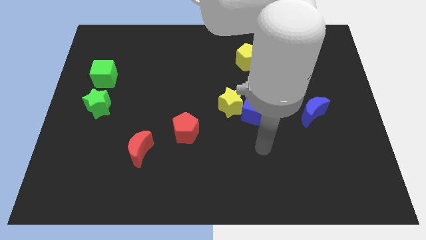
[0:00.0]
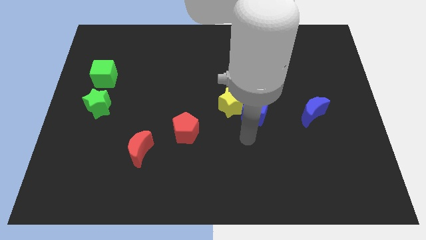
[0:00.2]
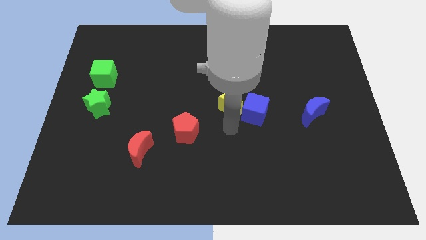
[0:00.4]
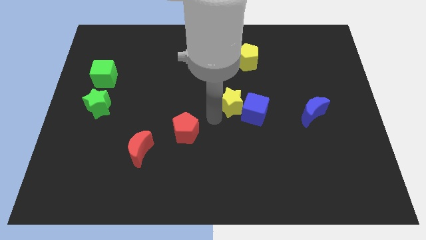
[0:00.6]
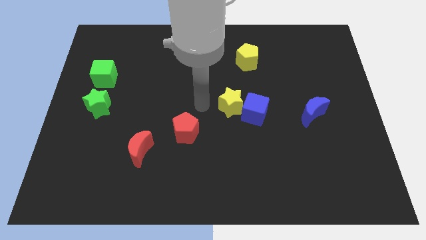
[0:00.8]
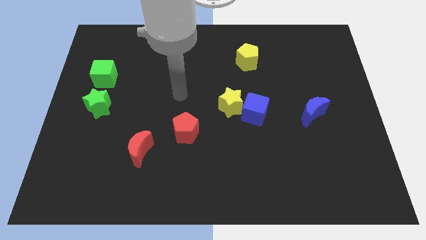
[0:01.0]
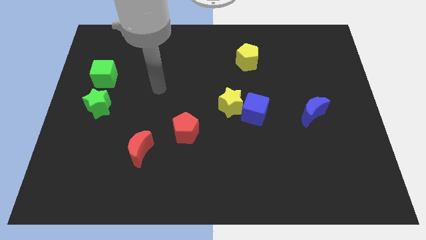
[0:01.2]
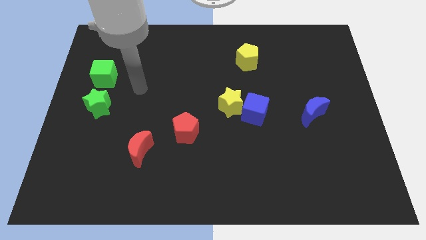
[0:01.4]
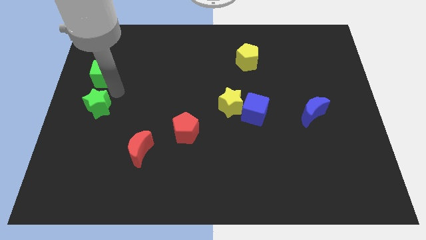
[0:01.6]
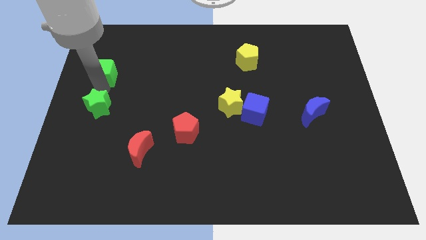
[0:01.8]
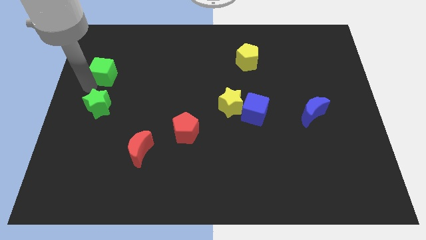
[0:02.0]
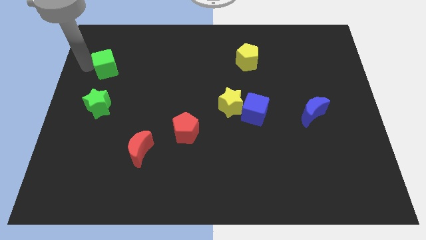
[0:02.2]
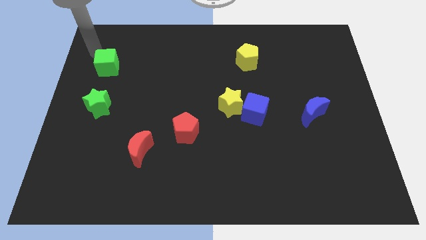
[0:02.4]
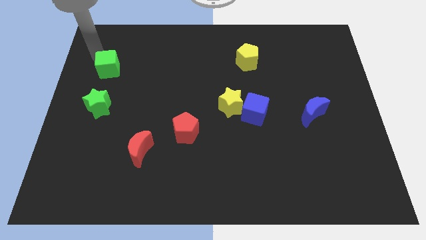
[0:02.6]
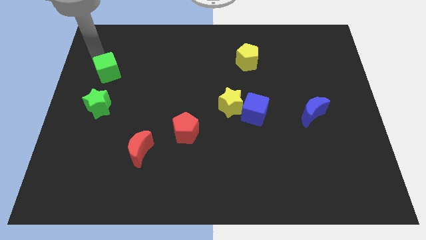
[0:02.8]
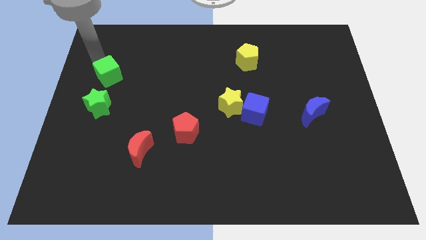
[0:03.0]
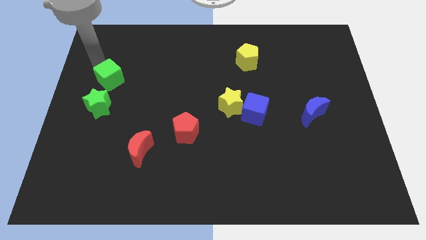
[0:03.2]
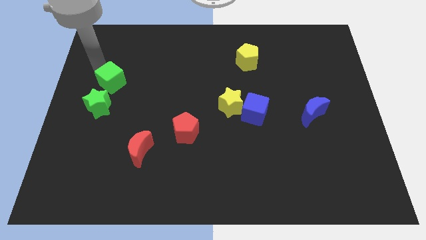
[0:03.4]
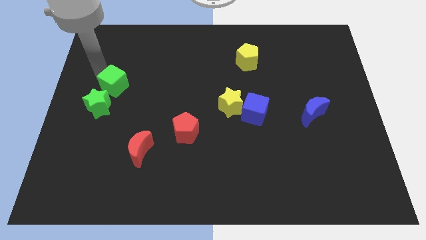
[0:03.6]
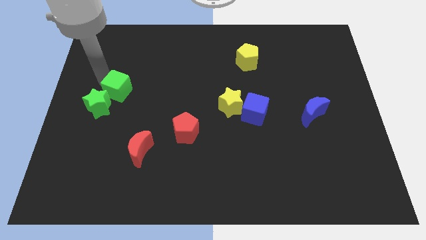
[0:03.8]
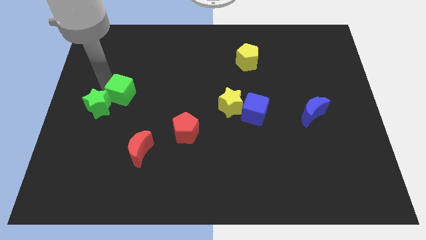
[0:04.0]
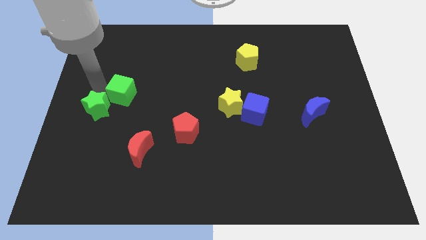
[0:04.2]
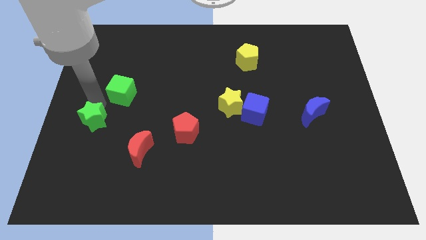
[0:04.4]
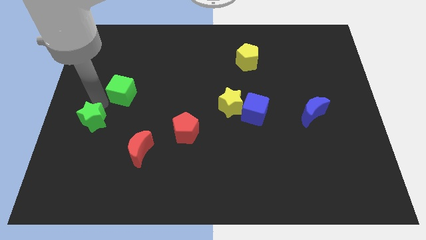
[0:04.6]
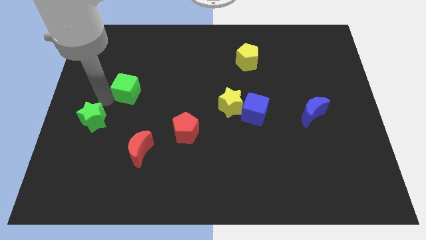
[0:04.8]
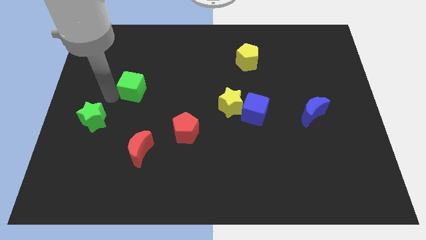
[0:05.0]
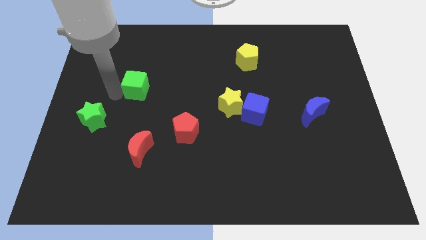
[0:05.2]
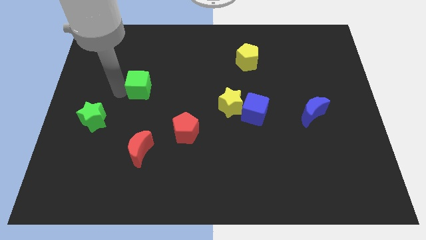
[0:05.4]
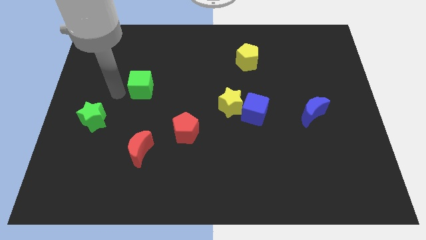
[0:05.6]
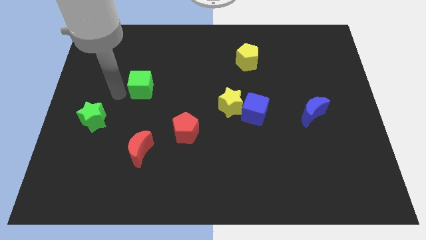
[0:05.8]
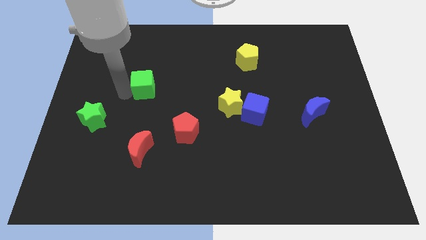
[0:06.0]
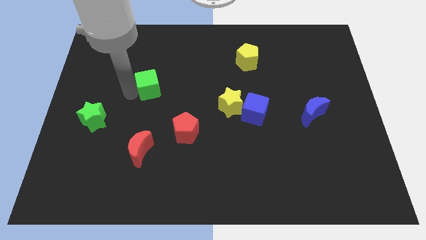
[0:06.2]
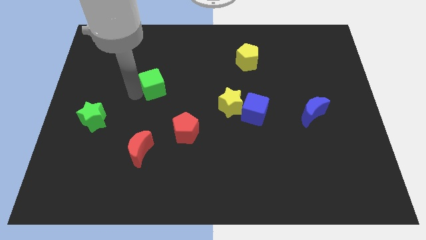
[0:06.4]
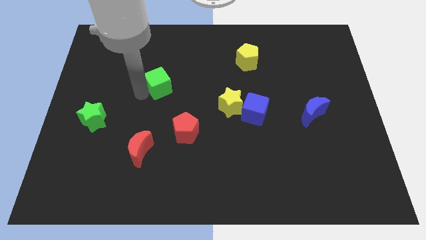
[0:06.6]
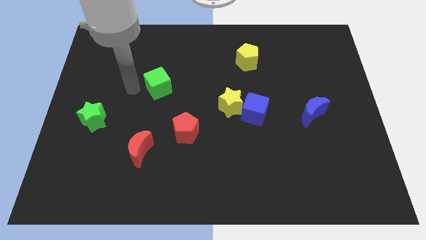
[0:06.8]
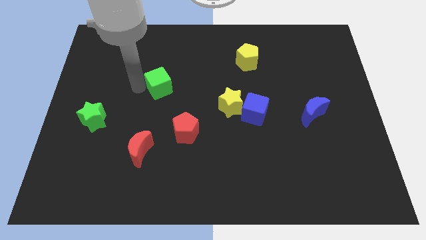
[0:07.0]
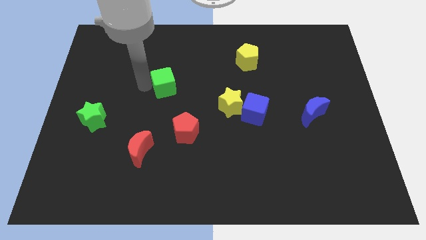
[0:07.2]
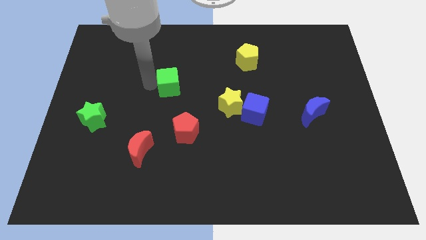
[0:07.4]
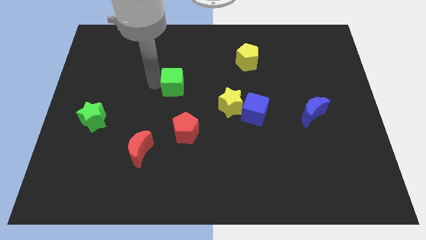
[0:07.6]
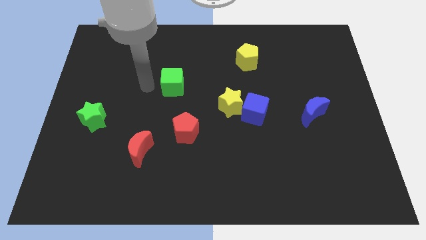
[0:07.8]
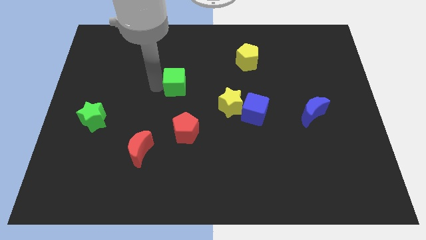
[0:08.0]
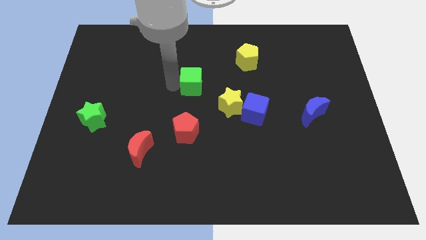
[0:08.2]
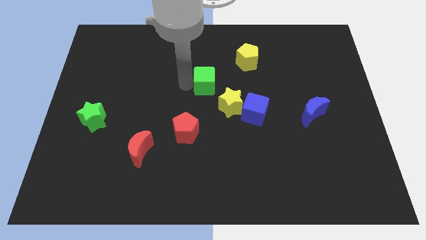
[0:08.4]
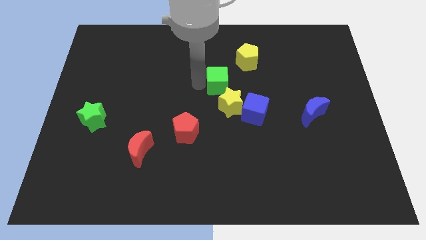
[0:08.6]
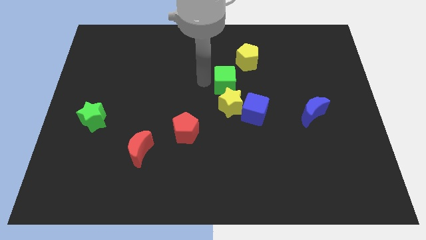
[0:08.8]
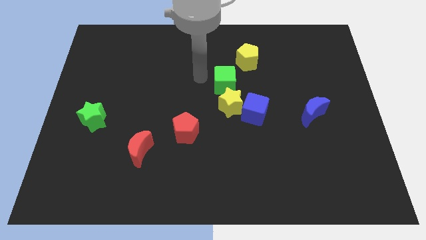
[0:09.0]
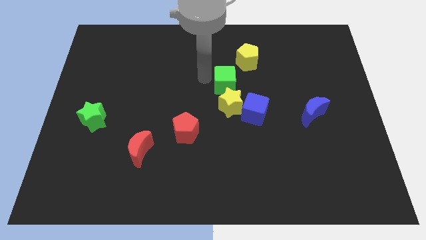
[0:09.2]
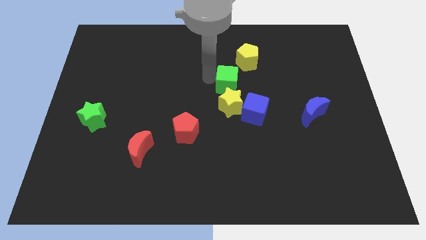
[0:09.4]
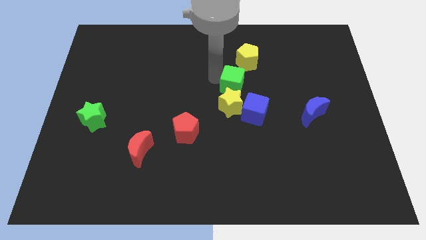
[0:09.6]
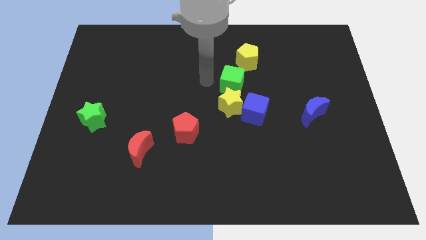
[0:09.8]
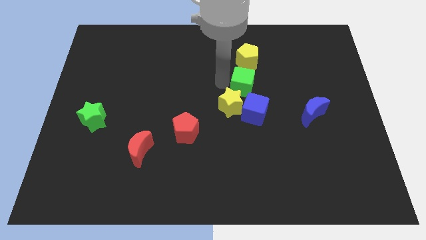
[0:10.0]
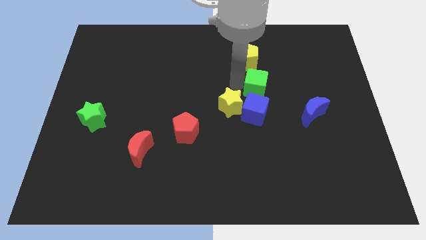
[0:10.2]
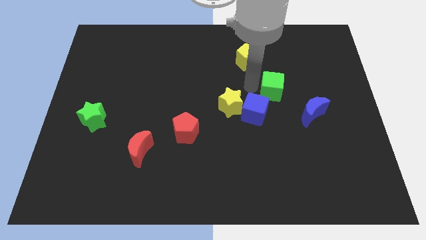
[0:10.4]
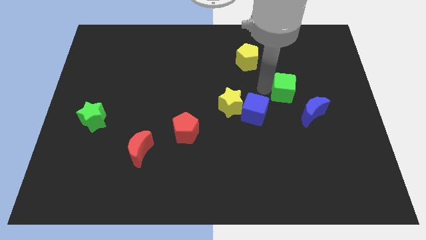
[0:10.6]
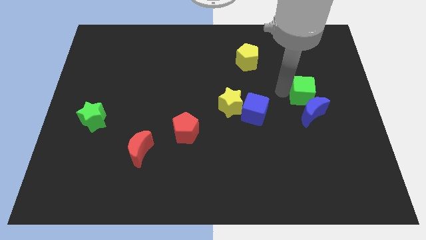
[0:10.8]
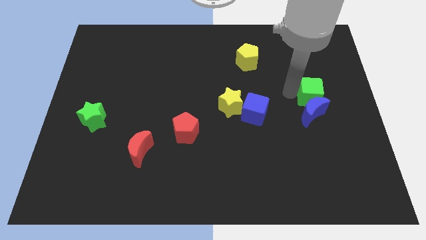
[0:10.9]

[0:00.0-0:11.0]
slide the green cube diagonally up and to the right of the blue moon

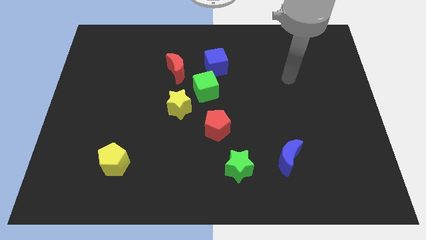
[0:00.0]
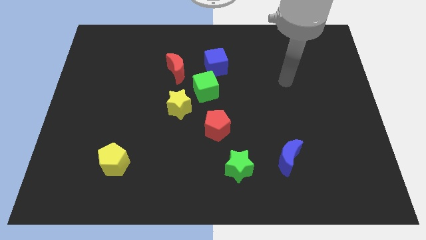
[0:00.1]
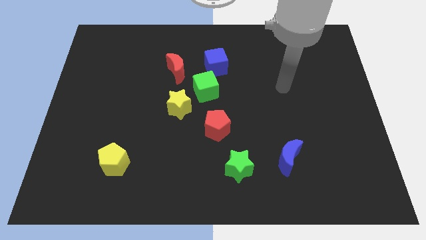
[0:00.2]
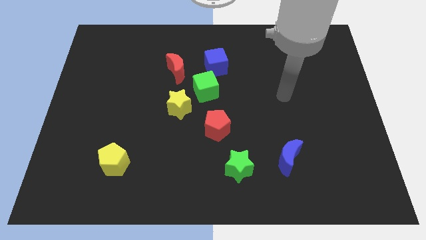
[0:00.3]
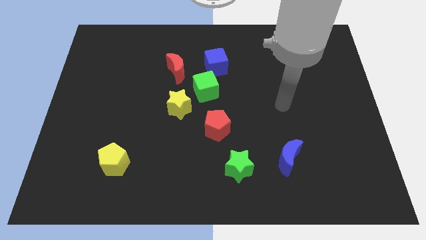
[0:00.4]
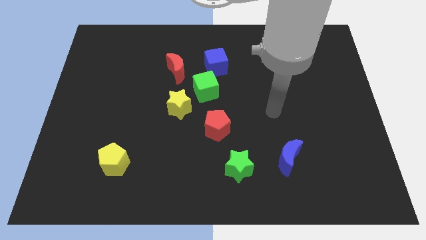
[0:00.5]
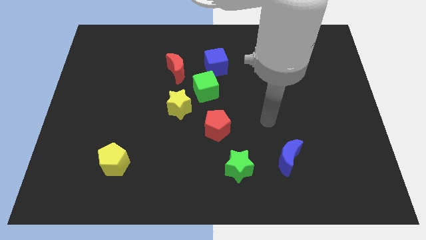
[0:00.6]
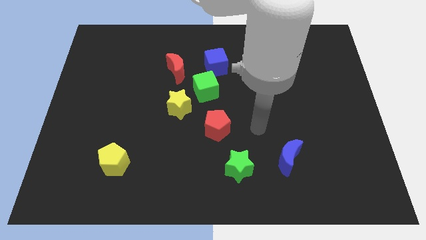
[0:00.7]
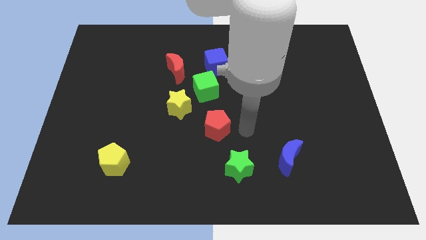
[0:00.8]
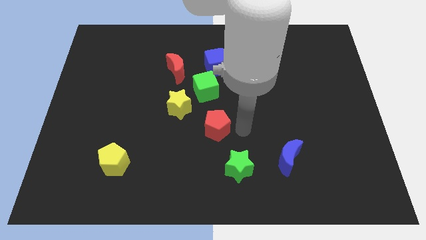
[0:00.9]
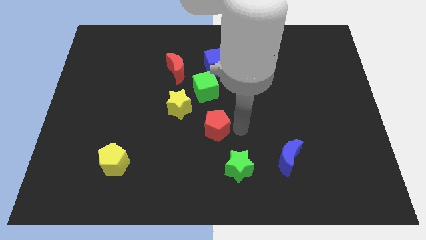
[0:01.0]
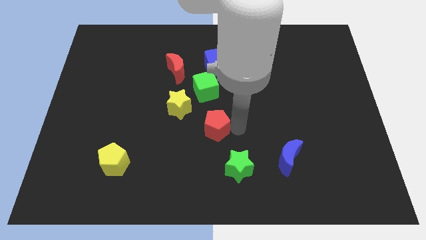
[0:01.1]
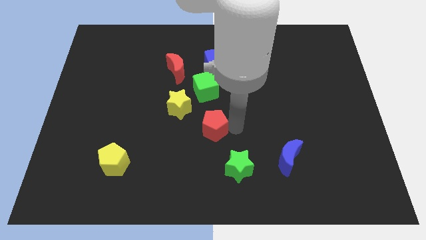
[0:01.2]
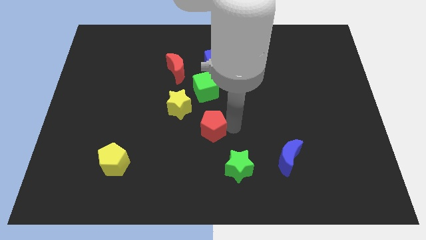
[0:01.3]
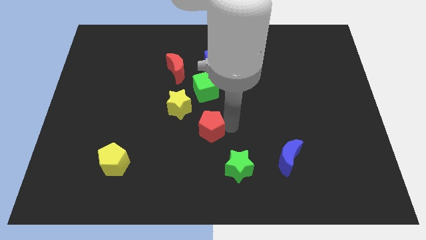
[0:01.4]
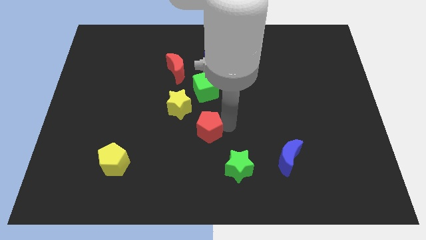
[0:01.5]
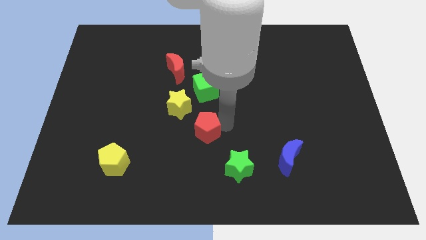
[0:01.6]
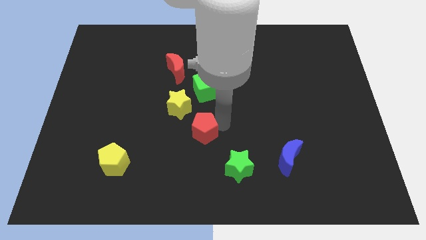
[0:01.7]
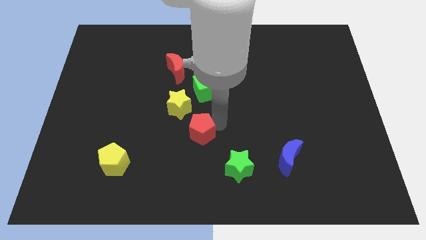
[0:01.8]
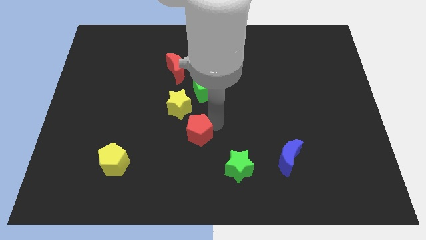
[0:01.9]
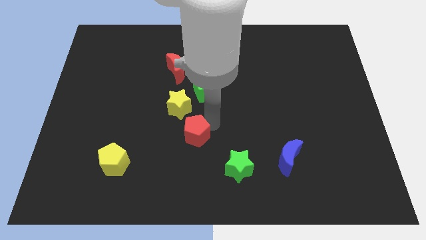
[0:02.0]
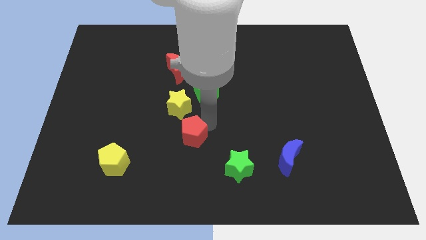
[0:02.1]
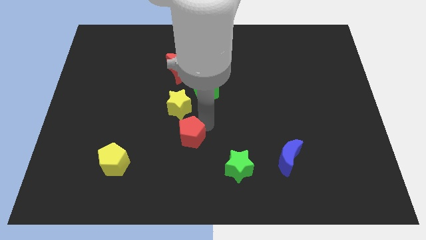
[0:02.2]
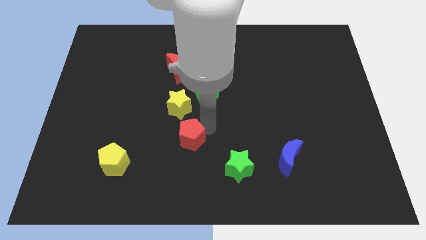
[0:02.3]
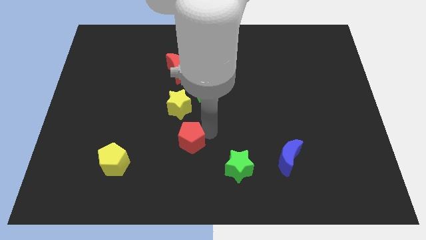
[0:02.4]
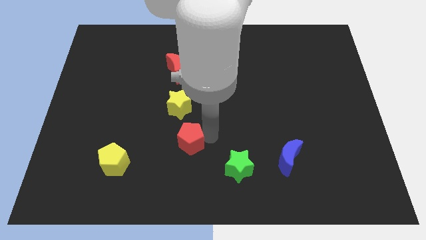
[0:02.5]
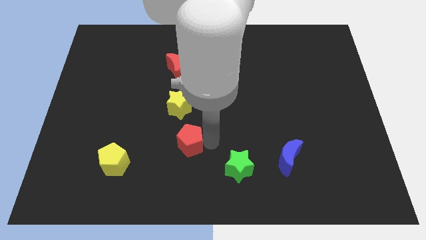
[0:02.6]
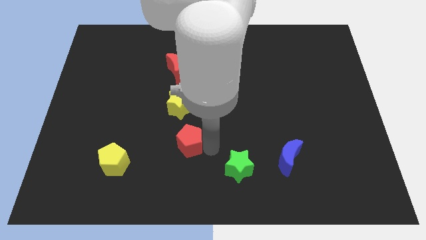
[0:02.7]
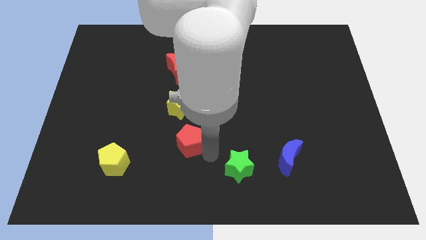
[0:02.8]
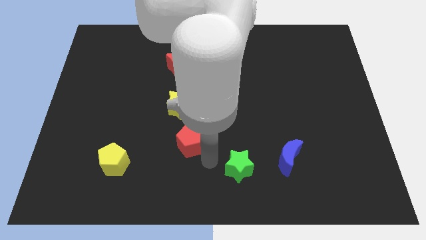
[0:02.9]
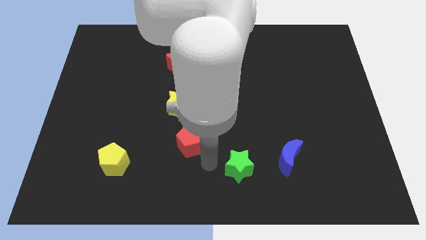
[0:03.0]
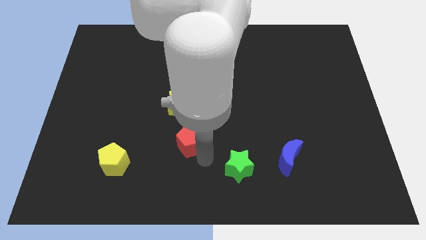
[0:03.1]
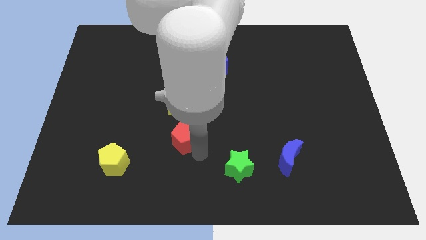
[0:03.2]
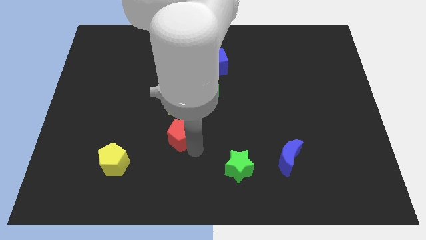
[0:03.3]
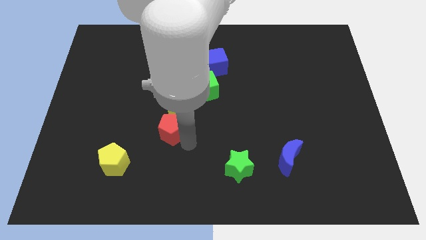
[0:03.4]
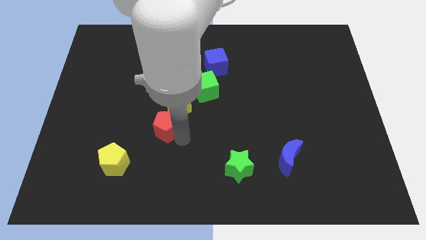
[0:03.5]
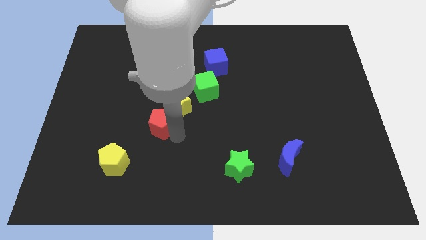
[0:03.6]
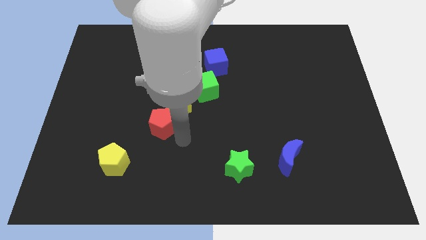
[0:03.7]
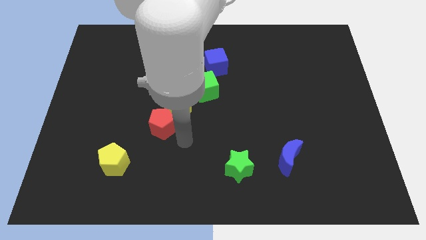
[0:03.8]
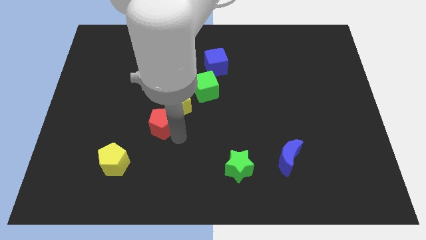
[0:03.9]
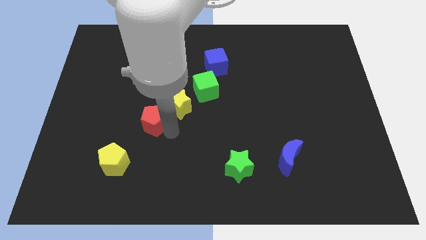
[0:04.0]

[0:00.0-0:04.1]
move the red pentagon just left of the yellow star
